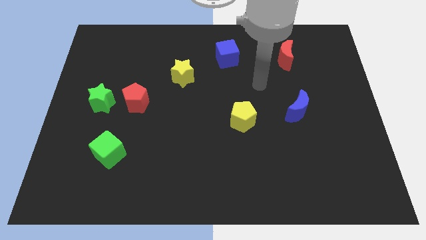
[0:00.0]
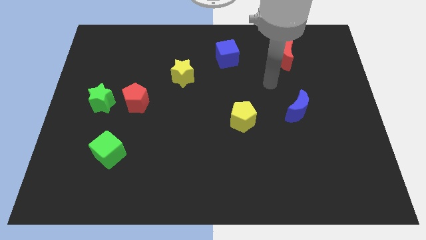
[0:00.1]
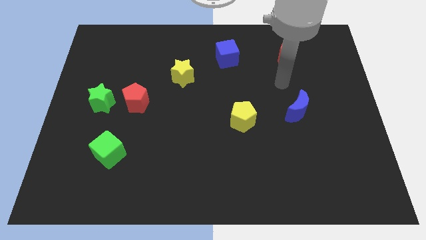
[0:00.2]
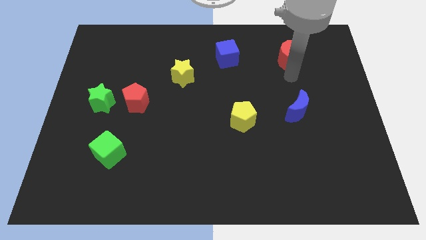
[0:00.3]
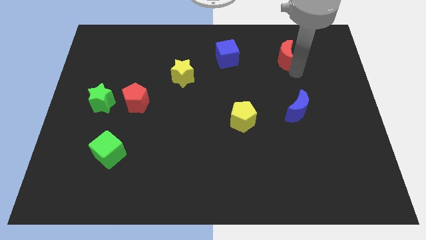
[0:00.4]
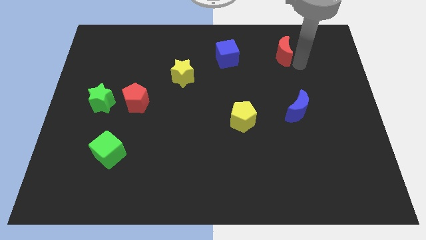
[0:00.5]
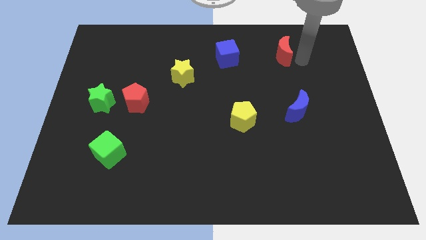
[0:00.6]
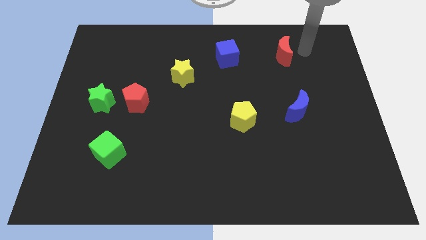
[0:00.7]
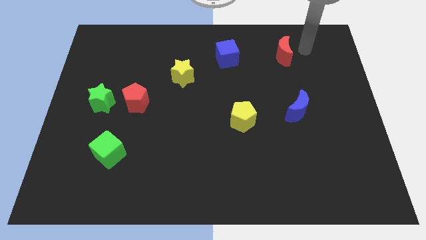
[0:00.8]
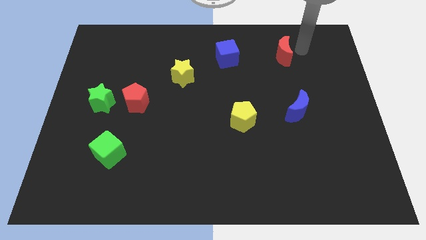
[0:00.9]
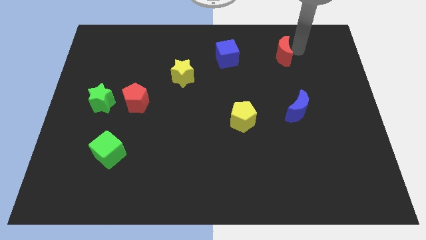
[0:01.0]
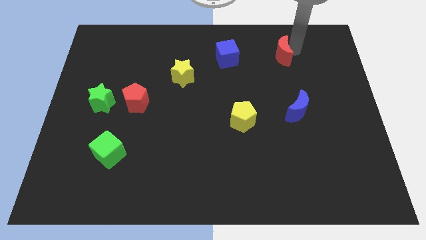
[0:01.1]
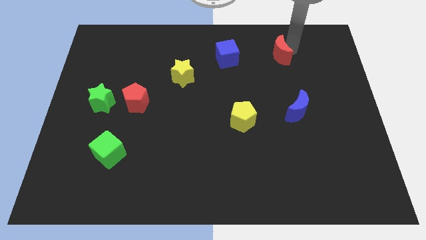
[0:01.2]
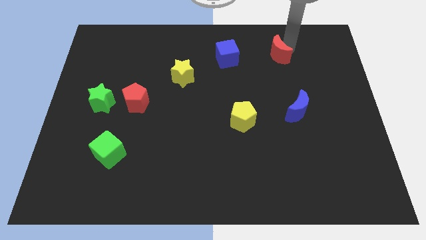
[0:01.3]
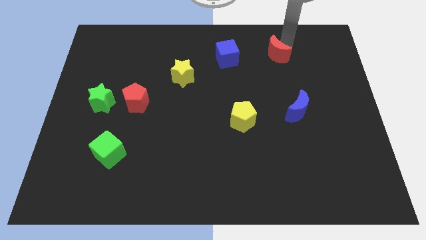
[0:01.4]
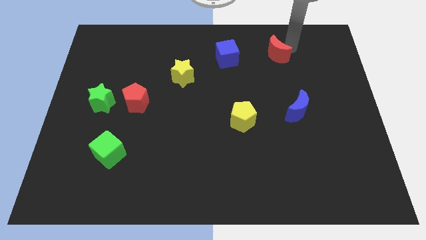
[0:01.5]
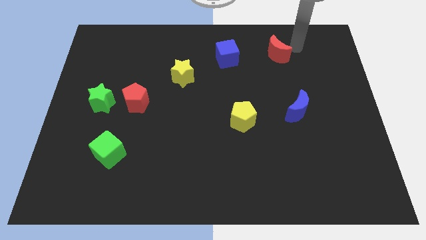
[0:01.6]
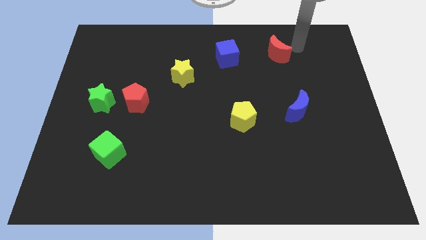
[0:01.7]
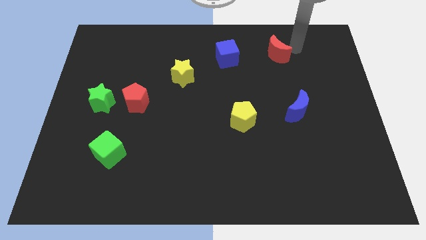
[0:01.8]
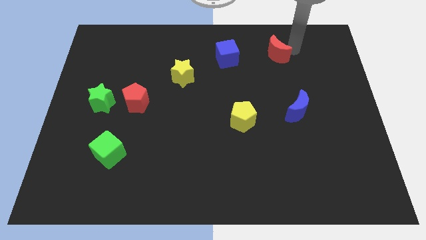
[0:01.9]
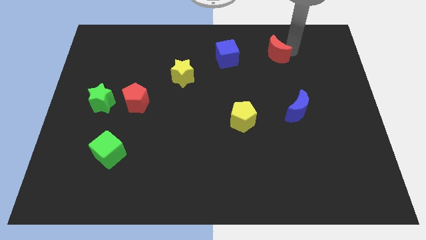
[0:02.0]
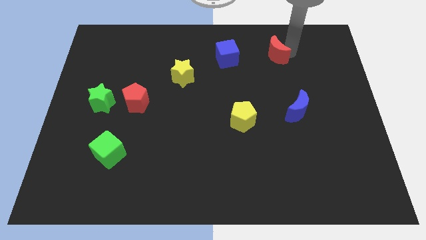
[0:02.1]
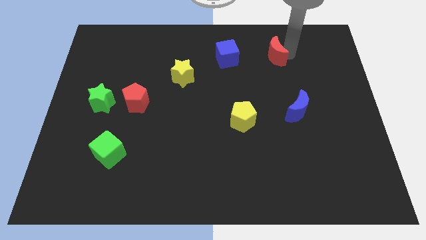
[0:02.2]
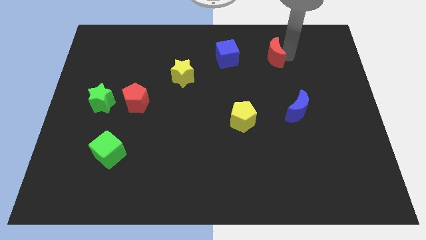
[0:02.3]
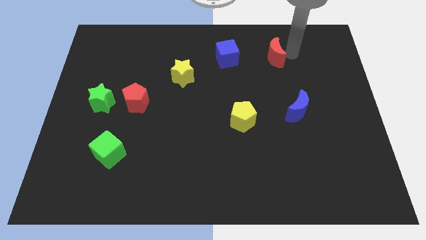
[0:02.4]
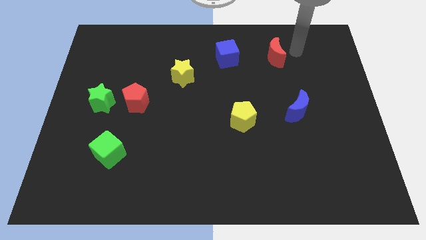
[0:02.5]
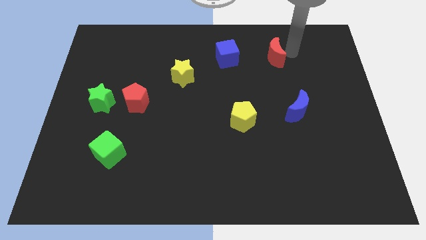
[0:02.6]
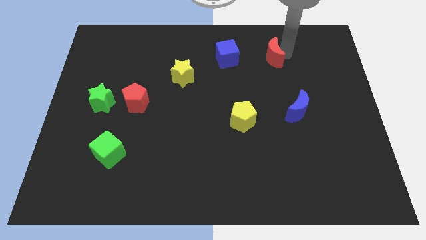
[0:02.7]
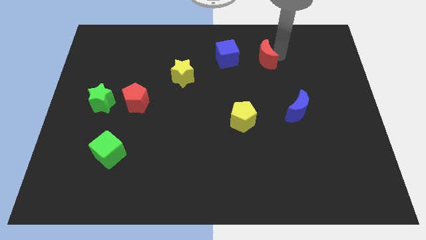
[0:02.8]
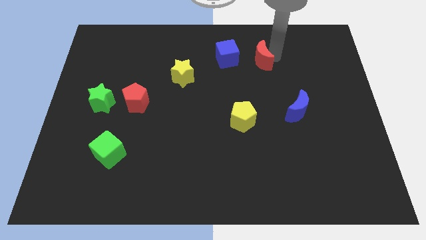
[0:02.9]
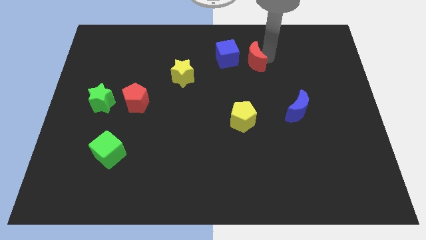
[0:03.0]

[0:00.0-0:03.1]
slightly slide the red moon to the left

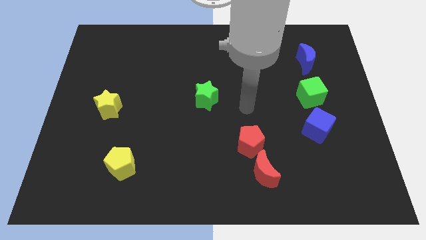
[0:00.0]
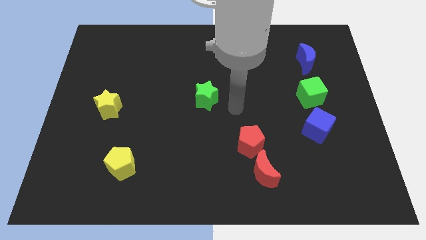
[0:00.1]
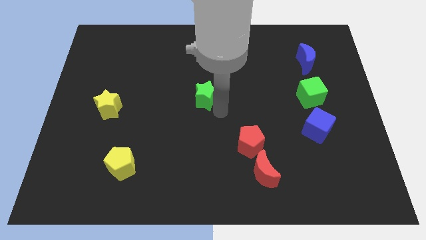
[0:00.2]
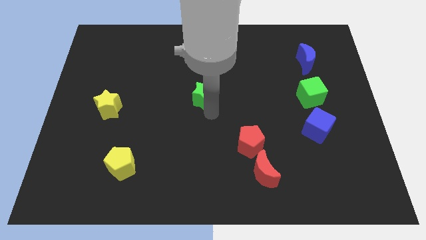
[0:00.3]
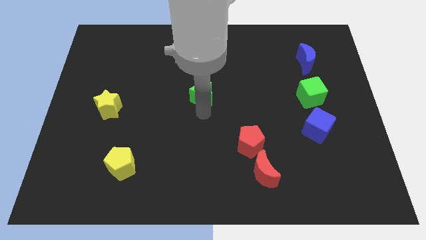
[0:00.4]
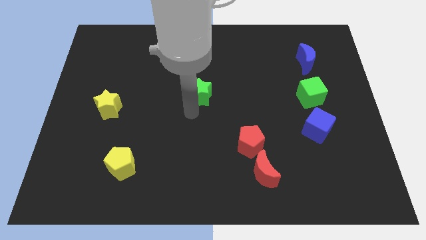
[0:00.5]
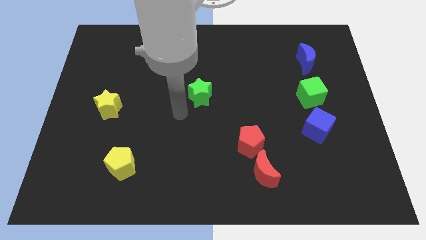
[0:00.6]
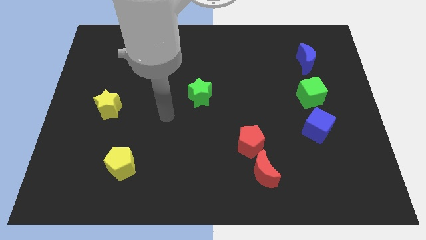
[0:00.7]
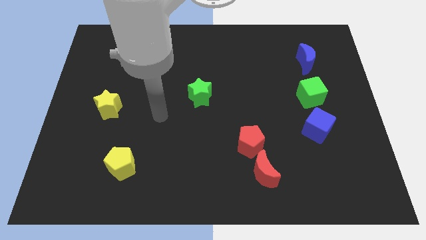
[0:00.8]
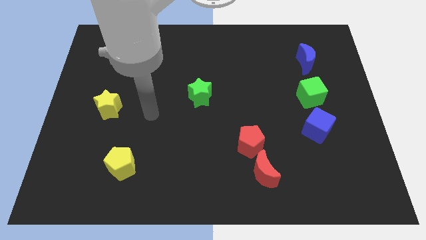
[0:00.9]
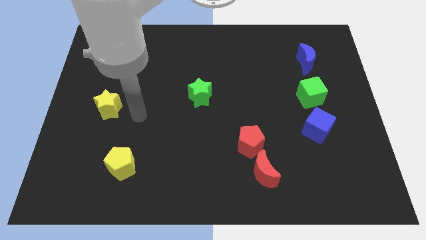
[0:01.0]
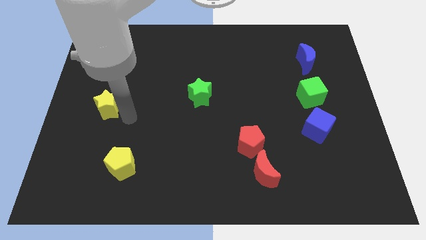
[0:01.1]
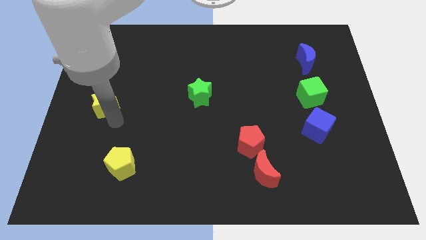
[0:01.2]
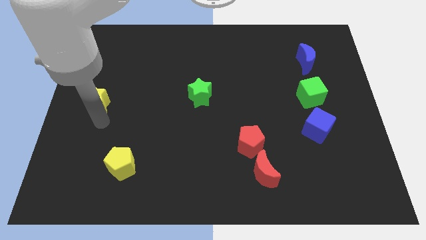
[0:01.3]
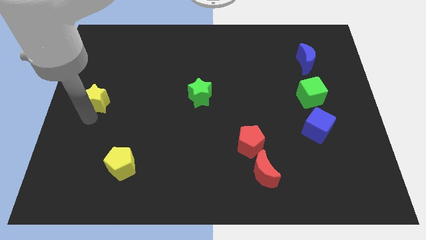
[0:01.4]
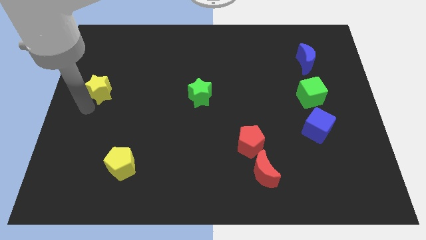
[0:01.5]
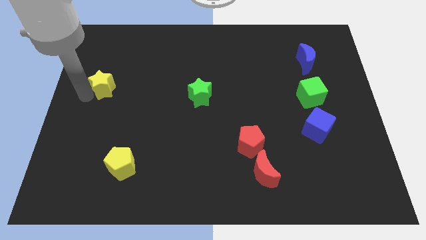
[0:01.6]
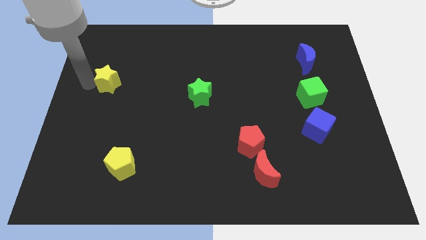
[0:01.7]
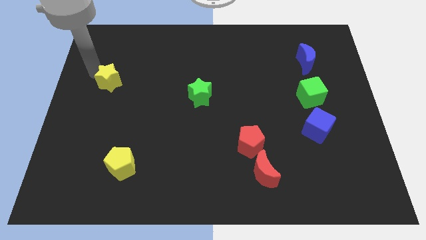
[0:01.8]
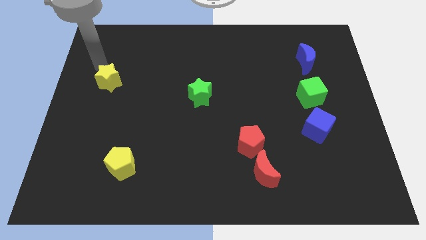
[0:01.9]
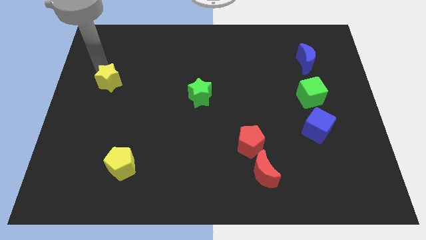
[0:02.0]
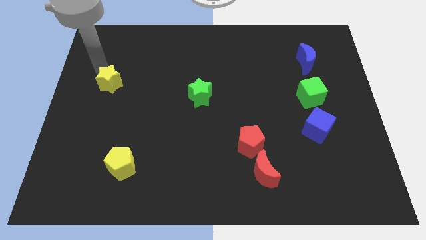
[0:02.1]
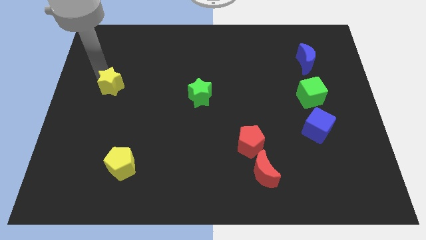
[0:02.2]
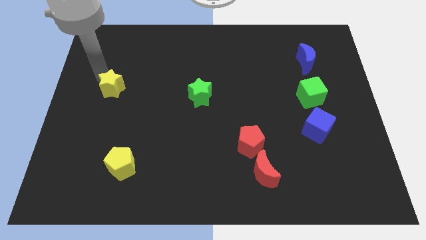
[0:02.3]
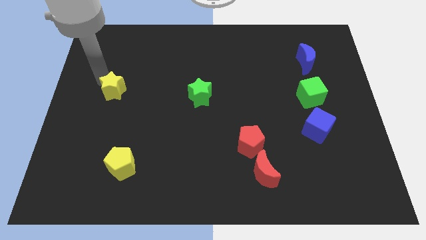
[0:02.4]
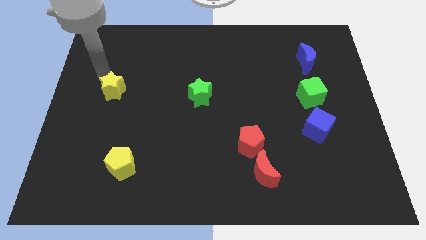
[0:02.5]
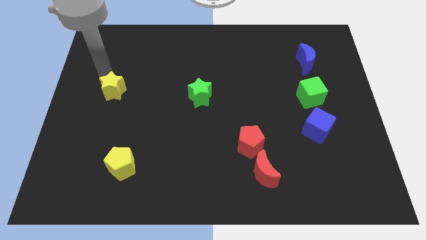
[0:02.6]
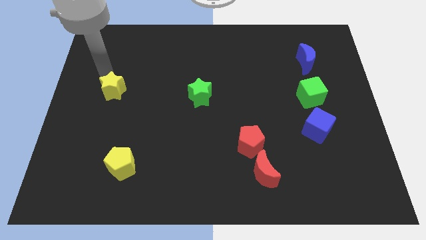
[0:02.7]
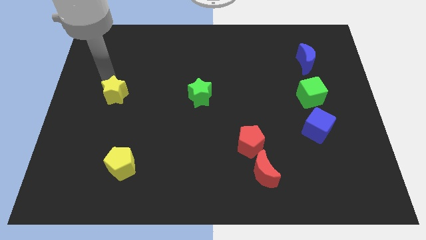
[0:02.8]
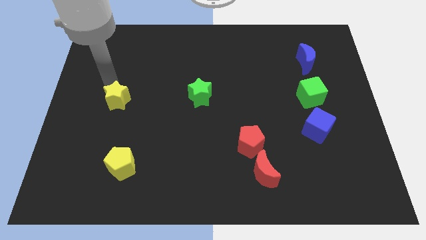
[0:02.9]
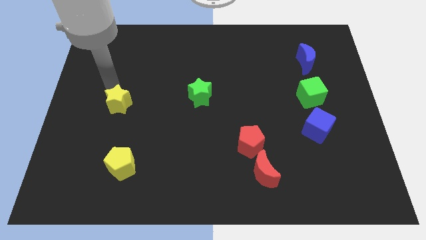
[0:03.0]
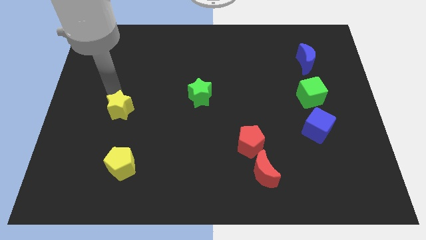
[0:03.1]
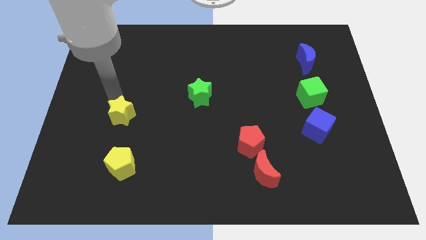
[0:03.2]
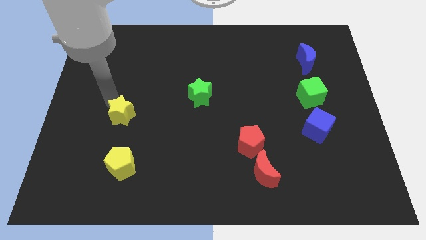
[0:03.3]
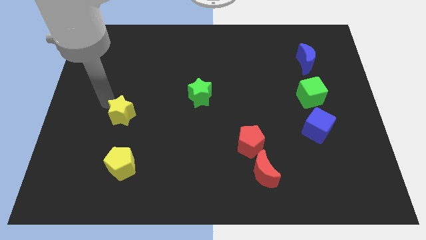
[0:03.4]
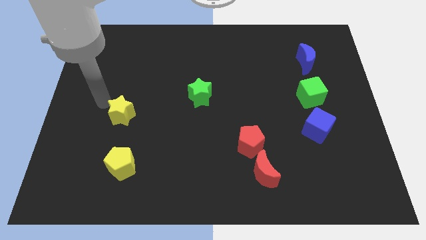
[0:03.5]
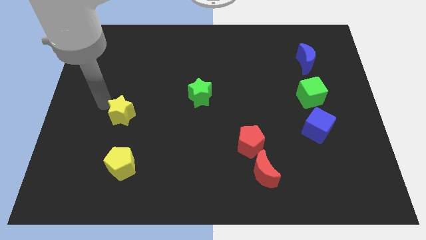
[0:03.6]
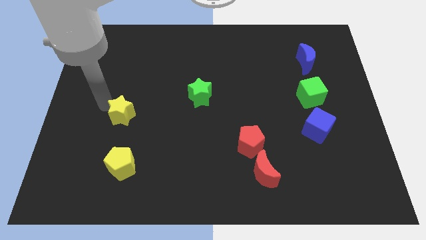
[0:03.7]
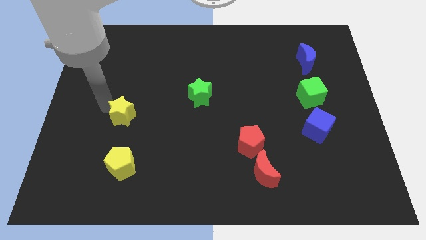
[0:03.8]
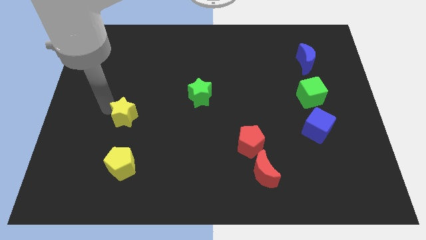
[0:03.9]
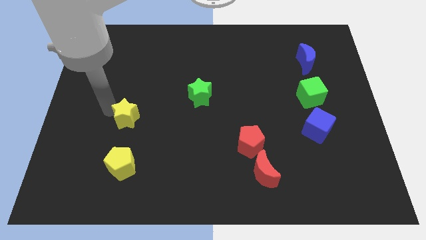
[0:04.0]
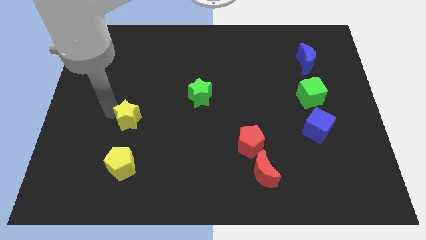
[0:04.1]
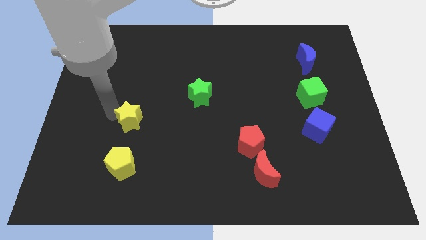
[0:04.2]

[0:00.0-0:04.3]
push the yellow star downwards and to the right a little

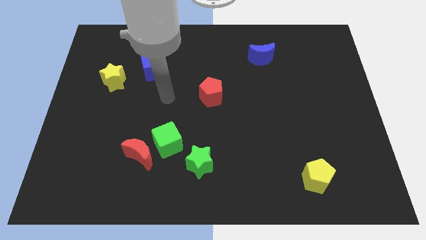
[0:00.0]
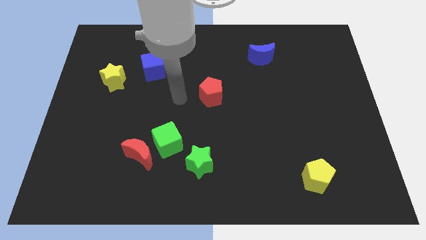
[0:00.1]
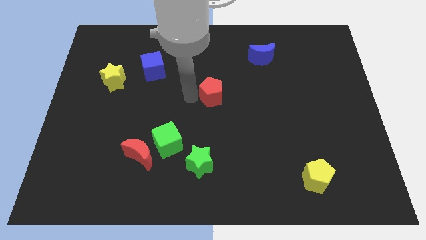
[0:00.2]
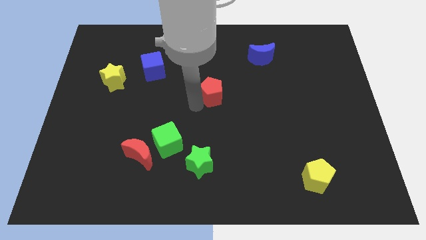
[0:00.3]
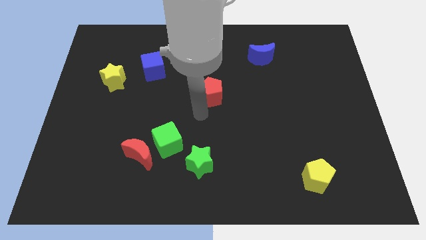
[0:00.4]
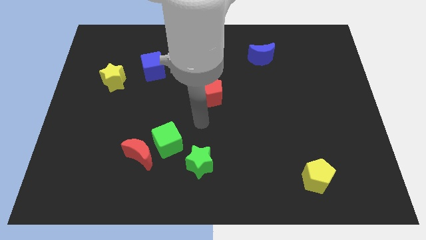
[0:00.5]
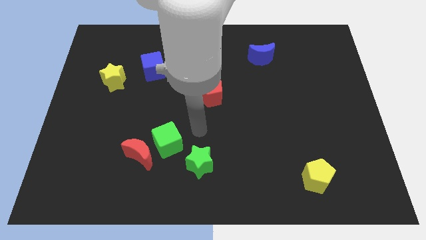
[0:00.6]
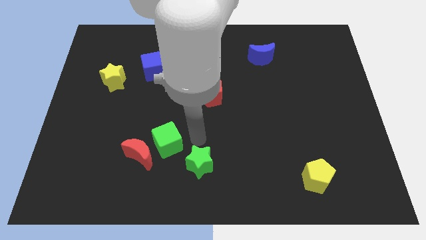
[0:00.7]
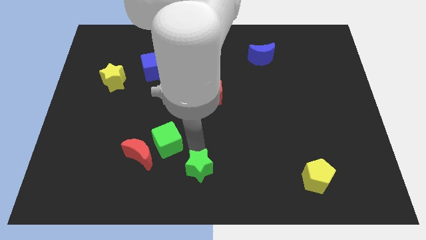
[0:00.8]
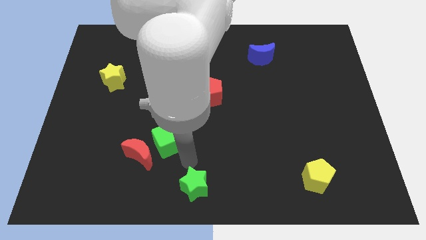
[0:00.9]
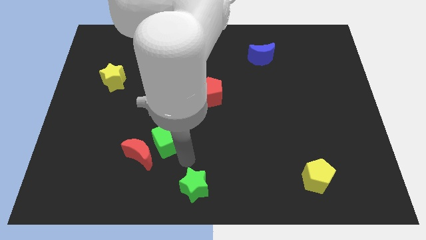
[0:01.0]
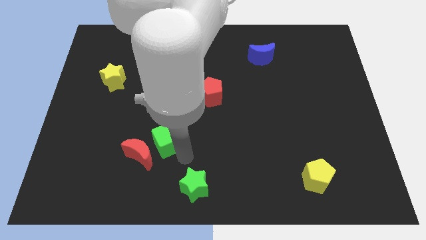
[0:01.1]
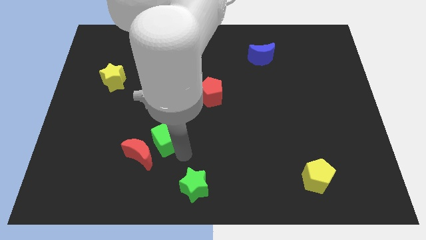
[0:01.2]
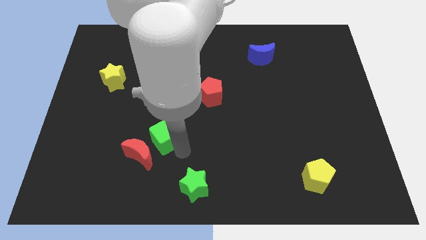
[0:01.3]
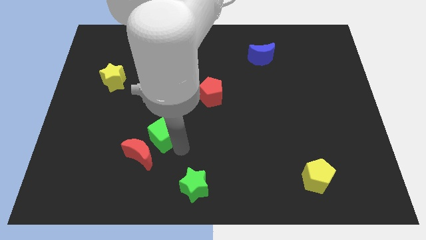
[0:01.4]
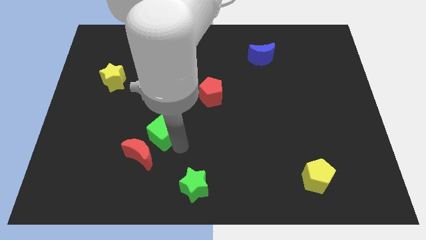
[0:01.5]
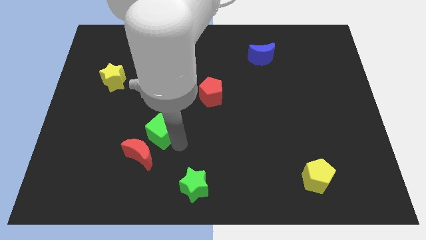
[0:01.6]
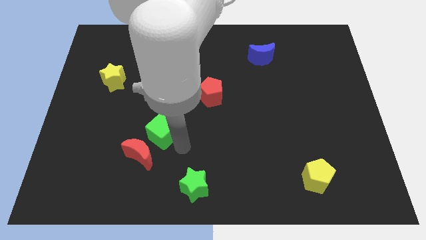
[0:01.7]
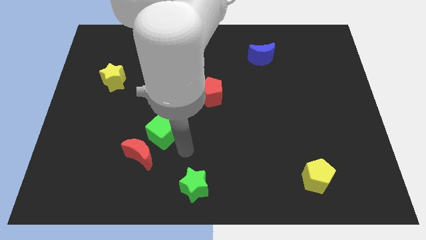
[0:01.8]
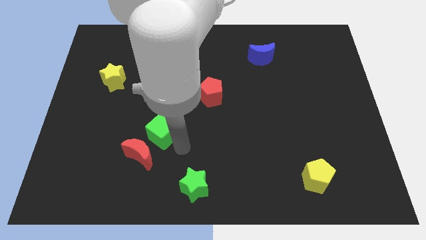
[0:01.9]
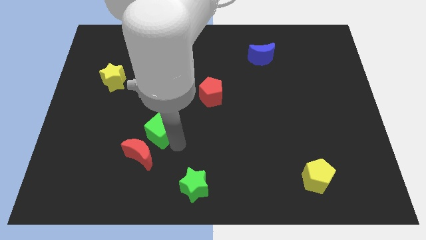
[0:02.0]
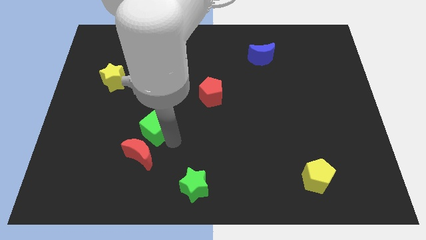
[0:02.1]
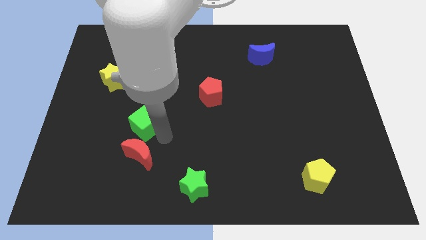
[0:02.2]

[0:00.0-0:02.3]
move the green cube diagonally up and left a little
